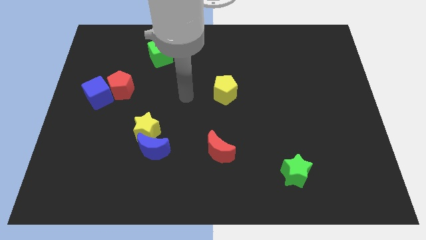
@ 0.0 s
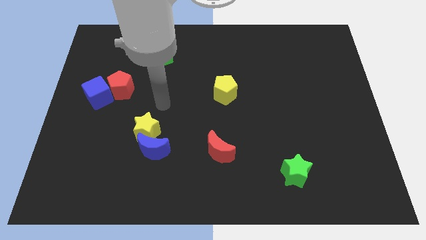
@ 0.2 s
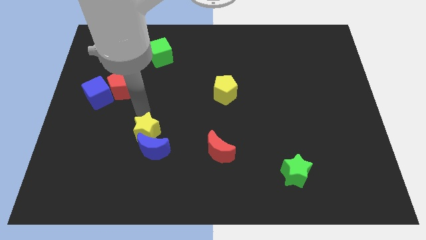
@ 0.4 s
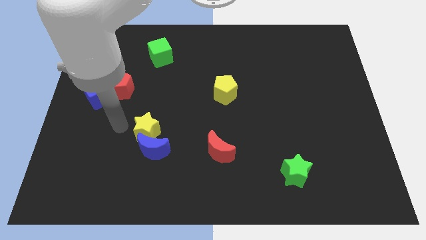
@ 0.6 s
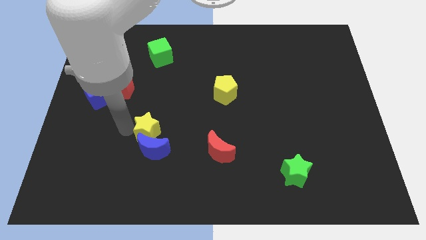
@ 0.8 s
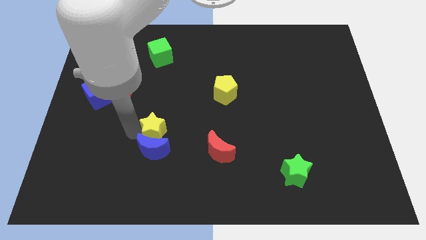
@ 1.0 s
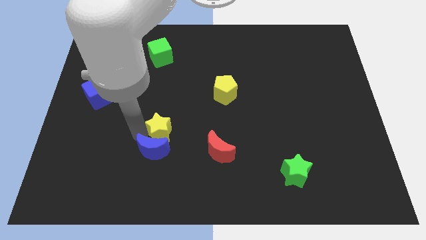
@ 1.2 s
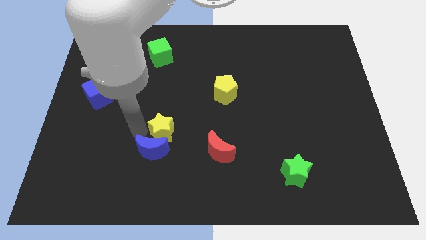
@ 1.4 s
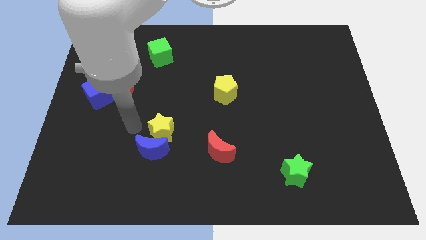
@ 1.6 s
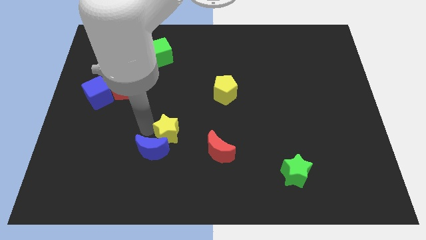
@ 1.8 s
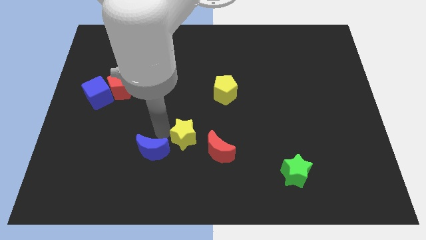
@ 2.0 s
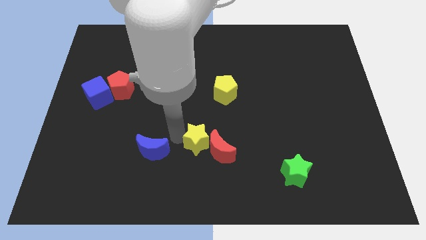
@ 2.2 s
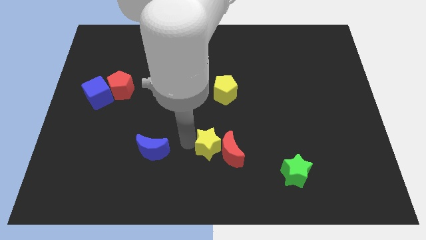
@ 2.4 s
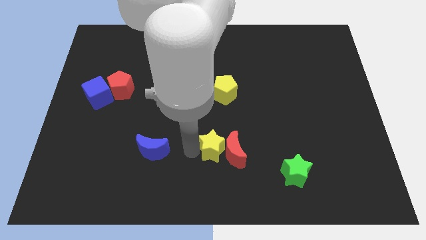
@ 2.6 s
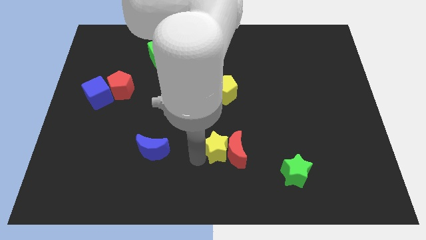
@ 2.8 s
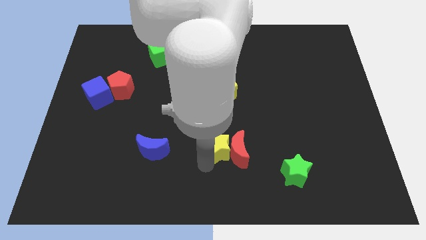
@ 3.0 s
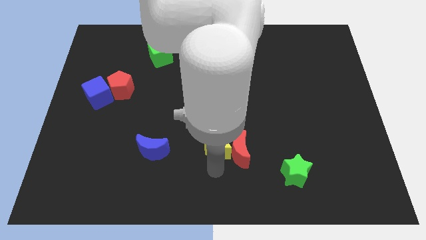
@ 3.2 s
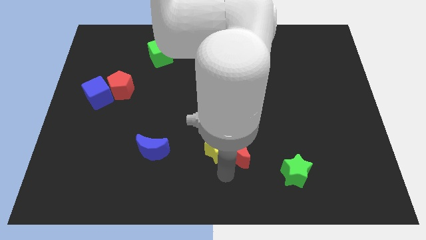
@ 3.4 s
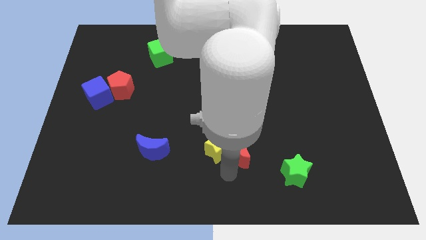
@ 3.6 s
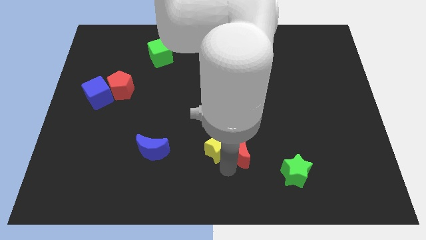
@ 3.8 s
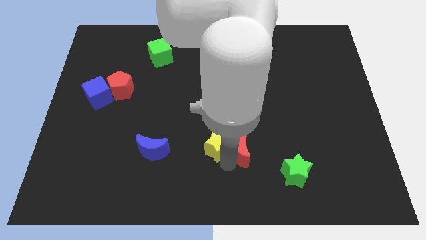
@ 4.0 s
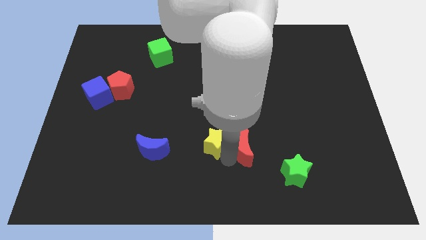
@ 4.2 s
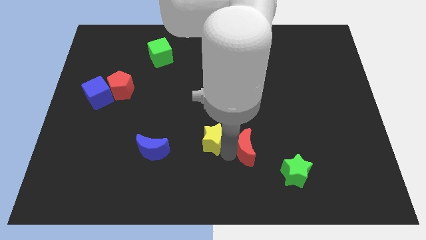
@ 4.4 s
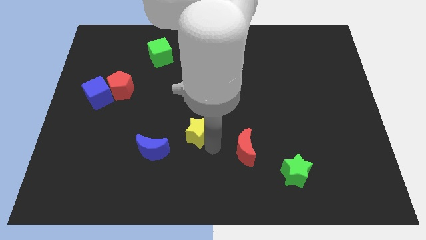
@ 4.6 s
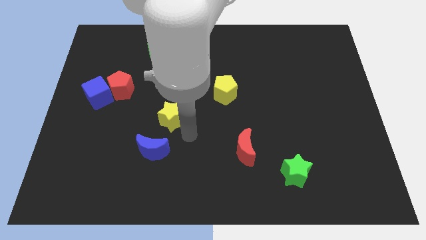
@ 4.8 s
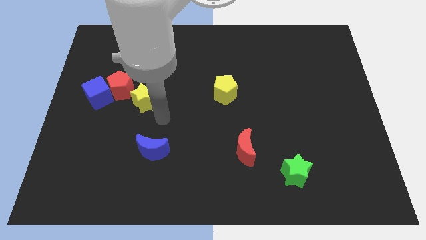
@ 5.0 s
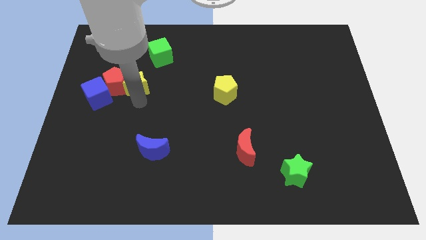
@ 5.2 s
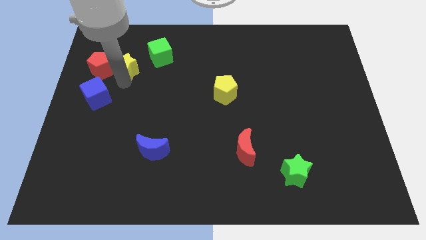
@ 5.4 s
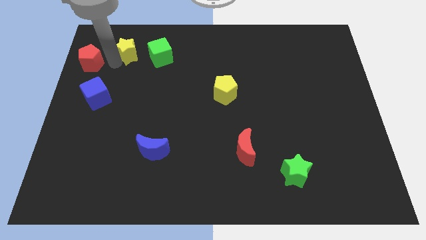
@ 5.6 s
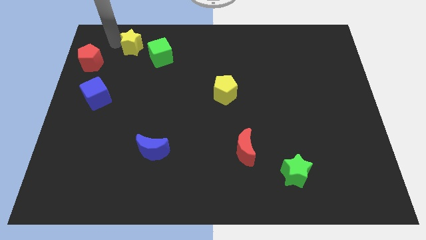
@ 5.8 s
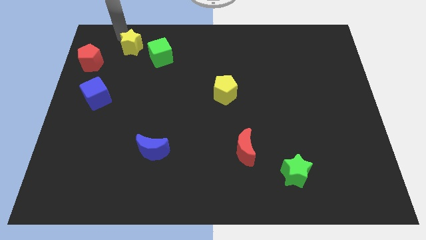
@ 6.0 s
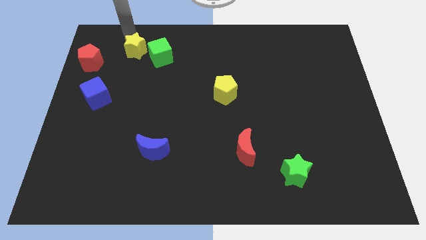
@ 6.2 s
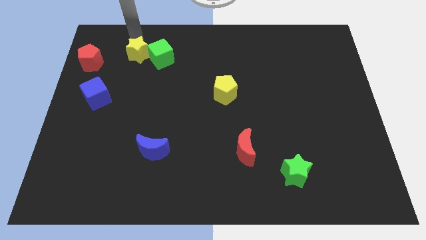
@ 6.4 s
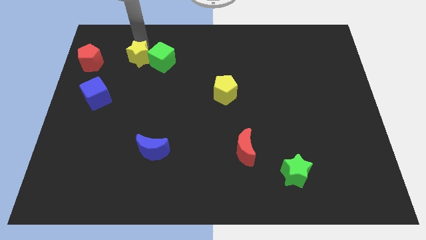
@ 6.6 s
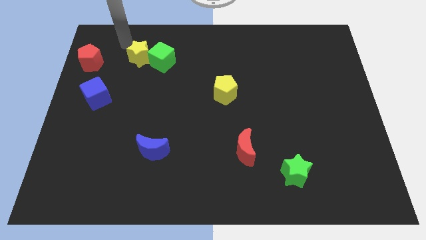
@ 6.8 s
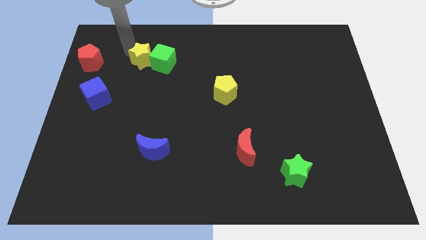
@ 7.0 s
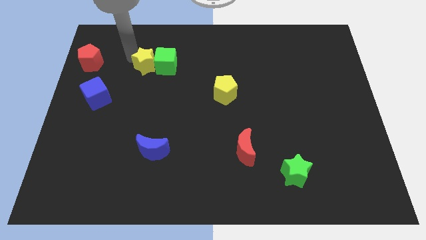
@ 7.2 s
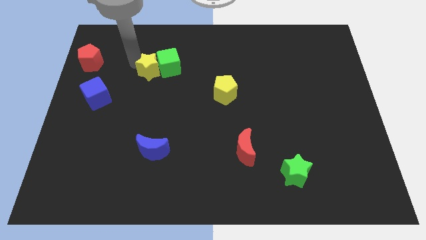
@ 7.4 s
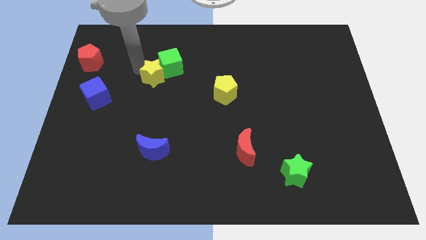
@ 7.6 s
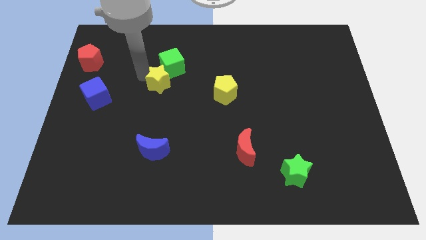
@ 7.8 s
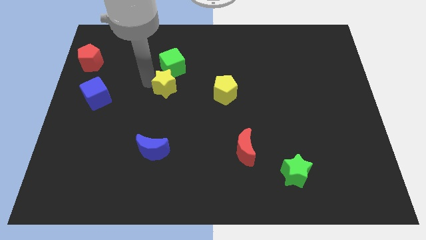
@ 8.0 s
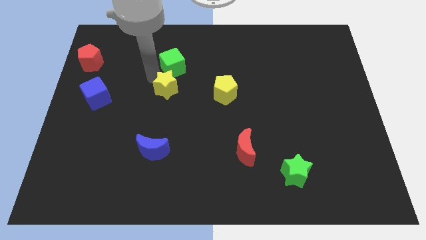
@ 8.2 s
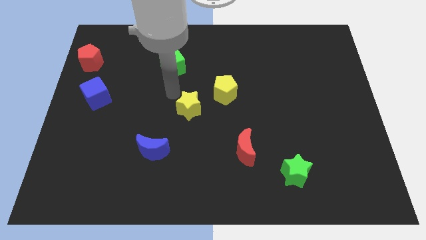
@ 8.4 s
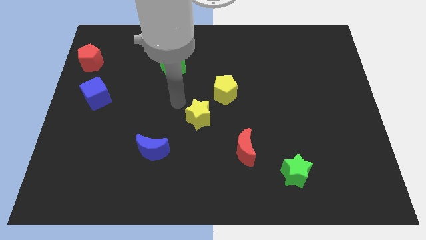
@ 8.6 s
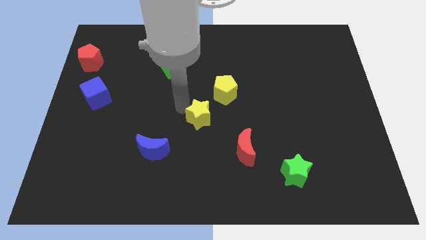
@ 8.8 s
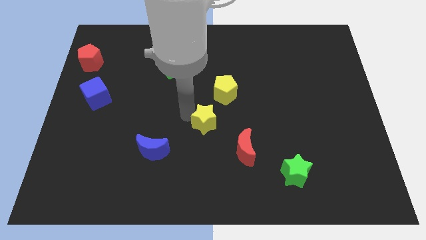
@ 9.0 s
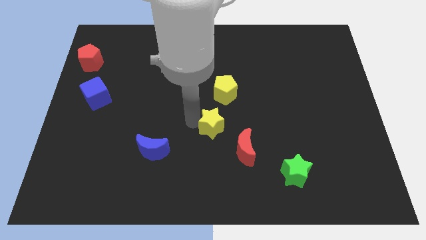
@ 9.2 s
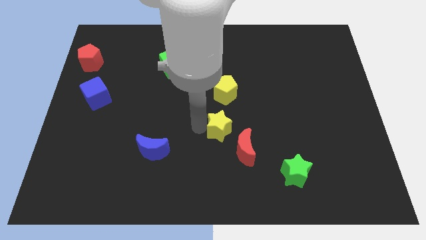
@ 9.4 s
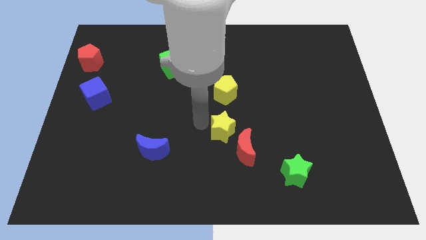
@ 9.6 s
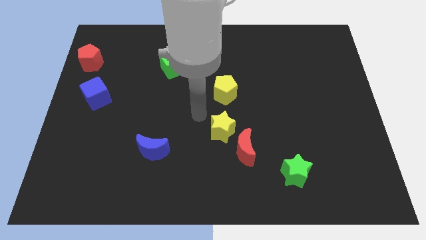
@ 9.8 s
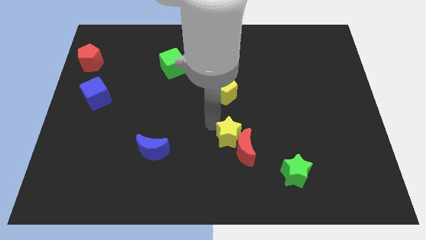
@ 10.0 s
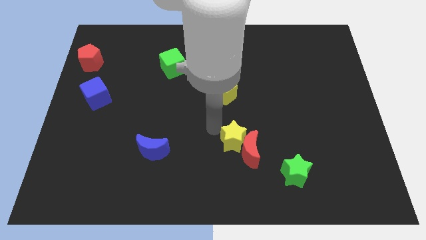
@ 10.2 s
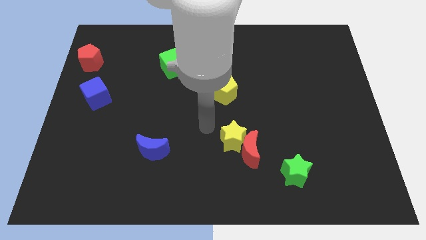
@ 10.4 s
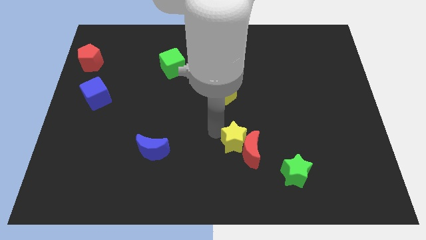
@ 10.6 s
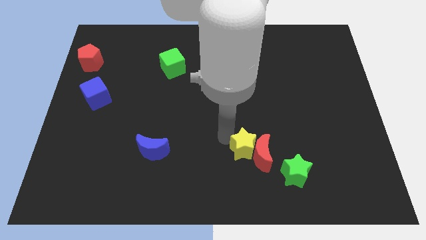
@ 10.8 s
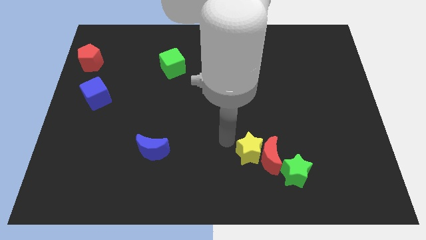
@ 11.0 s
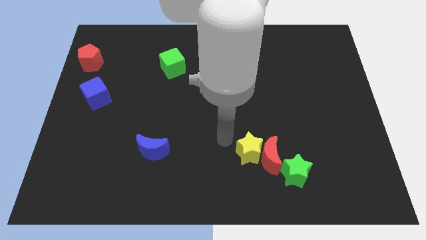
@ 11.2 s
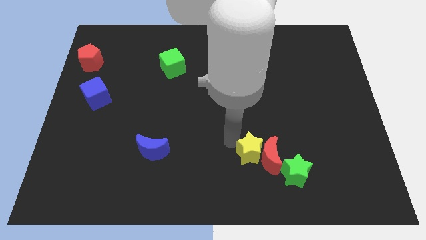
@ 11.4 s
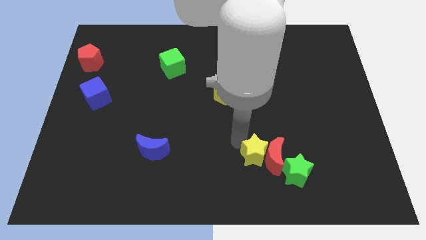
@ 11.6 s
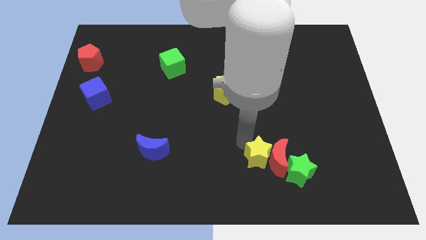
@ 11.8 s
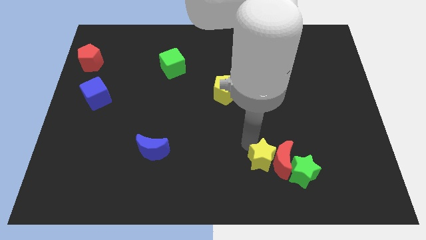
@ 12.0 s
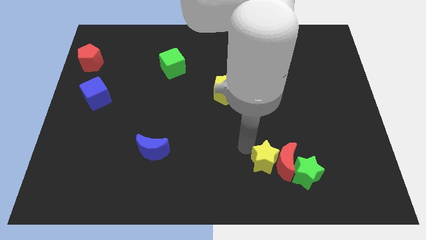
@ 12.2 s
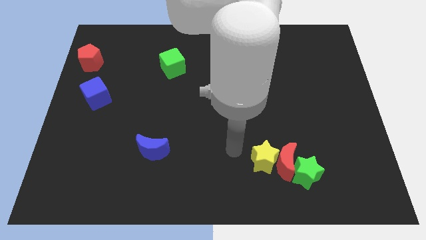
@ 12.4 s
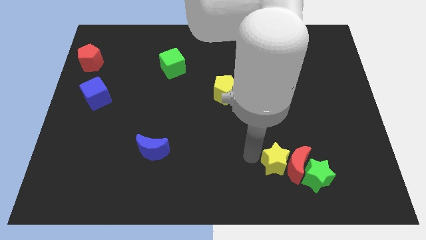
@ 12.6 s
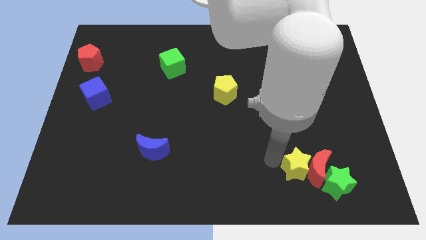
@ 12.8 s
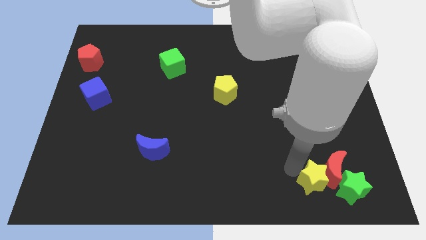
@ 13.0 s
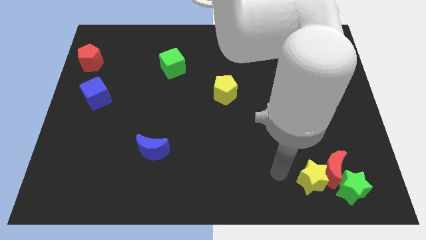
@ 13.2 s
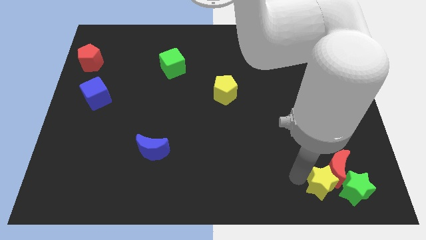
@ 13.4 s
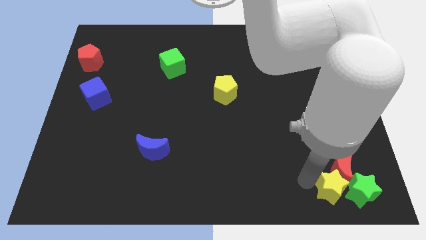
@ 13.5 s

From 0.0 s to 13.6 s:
put the yellow star to the green star

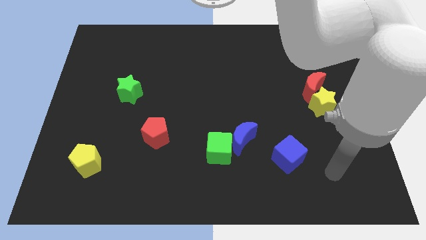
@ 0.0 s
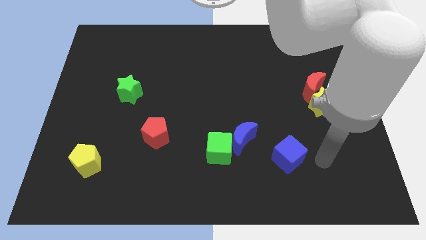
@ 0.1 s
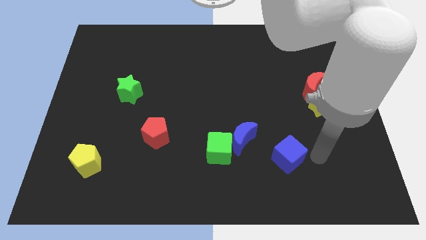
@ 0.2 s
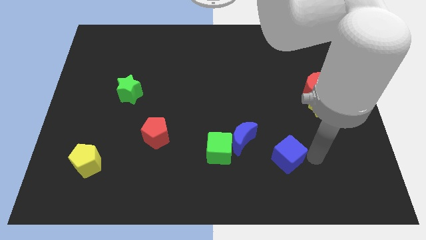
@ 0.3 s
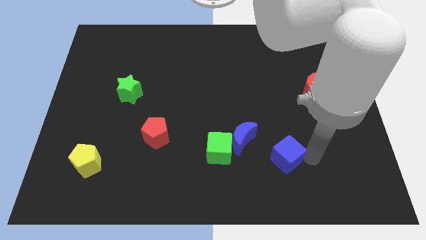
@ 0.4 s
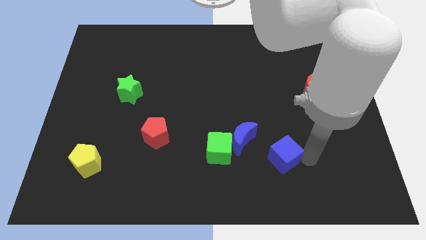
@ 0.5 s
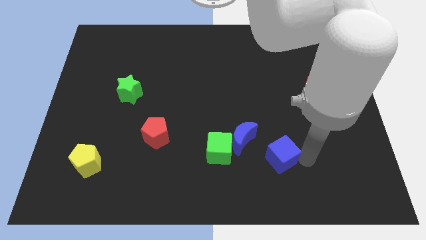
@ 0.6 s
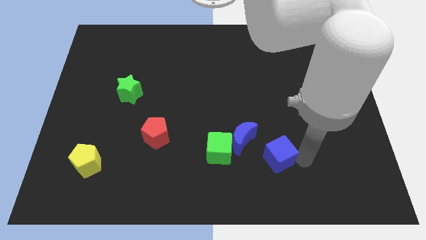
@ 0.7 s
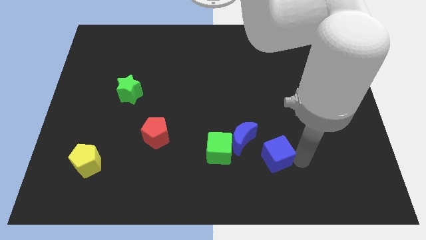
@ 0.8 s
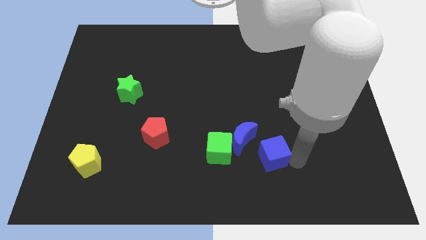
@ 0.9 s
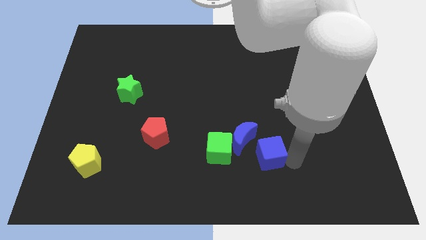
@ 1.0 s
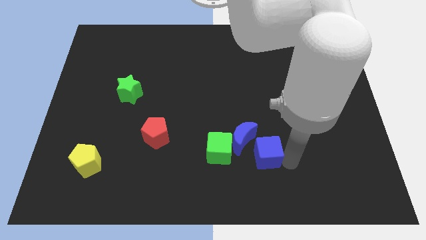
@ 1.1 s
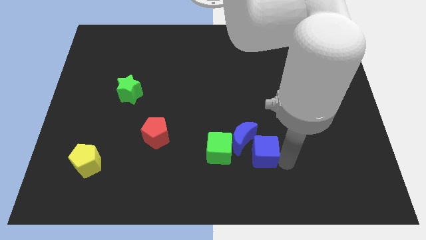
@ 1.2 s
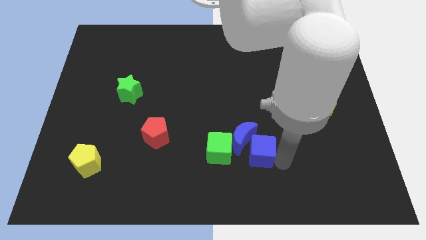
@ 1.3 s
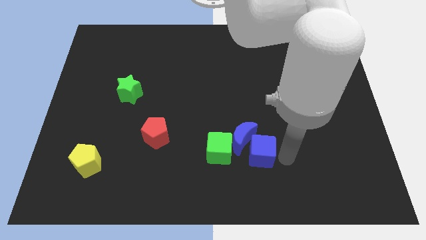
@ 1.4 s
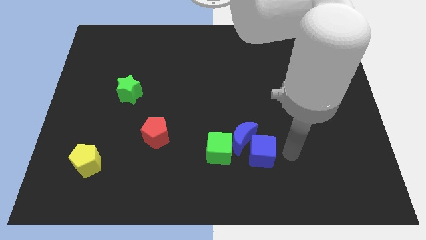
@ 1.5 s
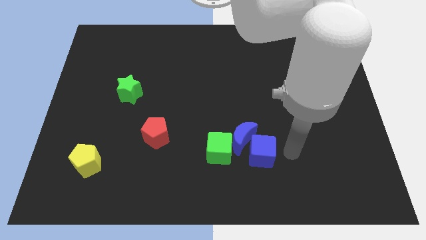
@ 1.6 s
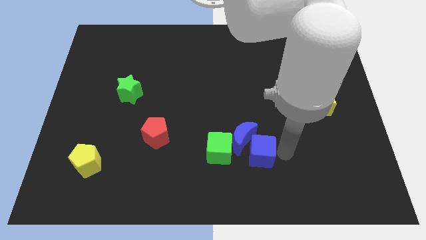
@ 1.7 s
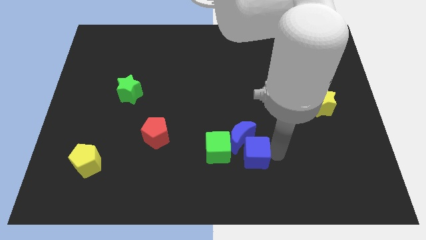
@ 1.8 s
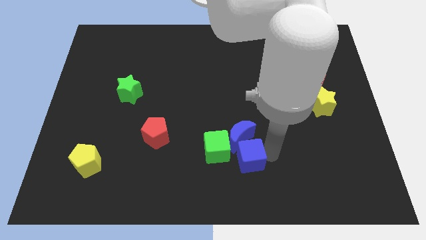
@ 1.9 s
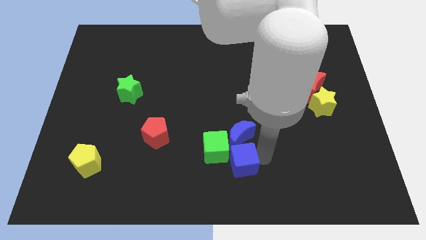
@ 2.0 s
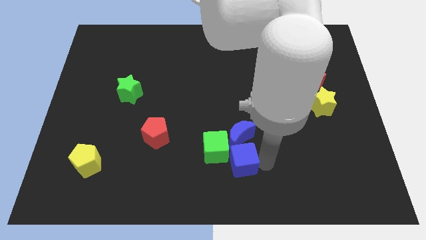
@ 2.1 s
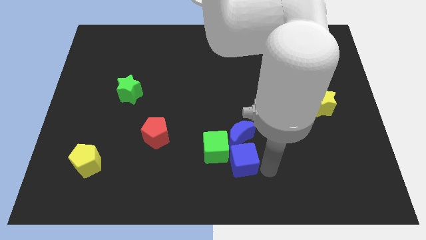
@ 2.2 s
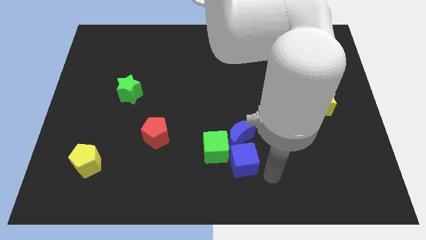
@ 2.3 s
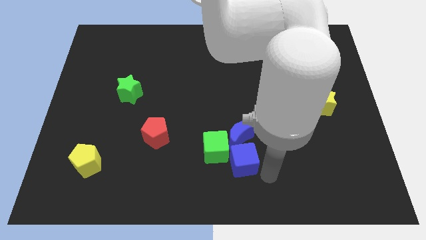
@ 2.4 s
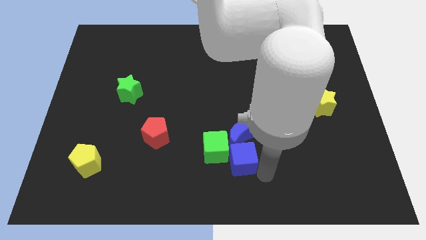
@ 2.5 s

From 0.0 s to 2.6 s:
slide the blue cube towards the green cube
